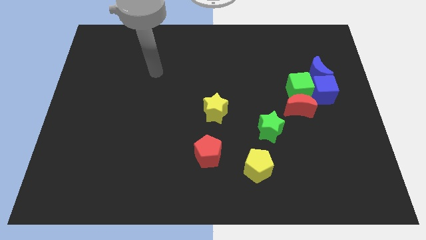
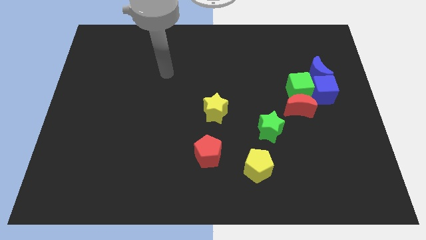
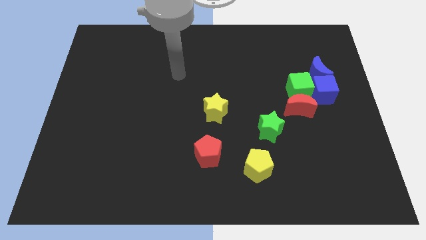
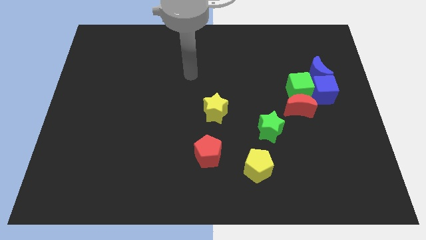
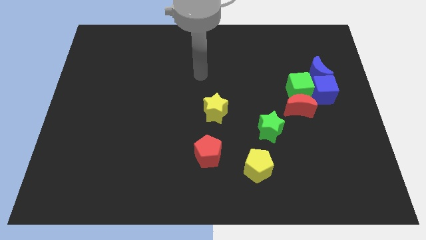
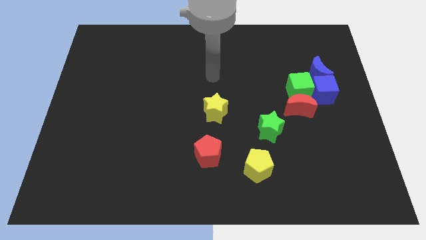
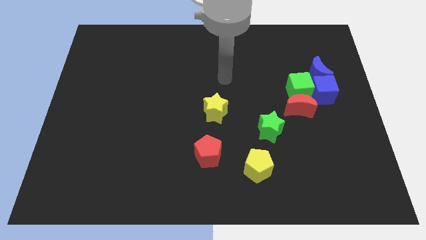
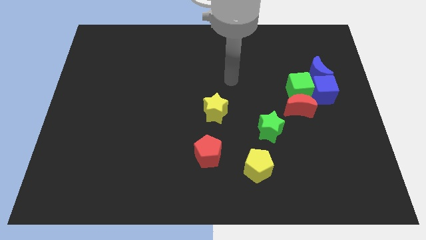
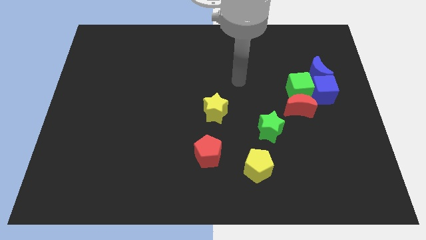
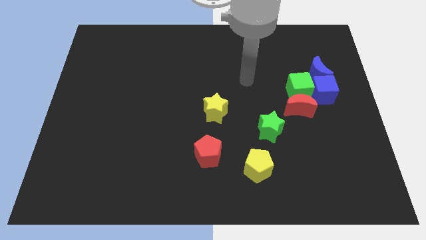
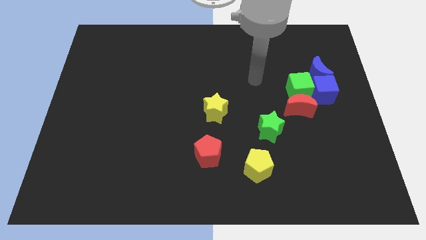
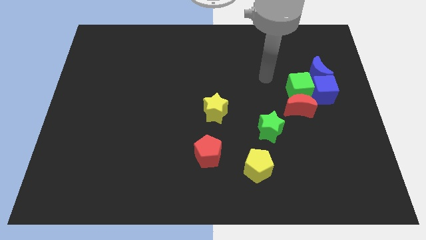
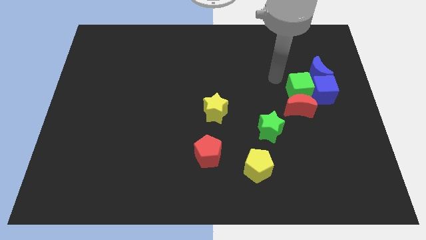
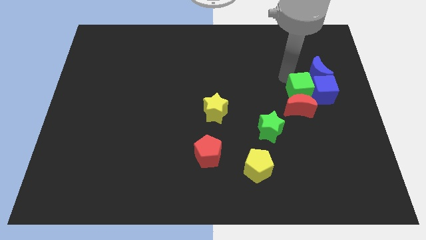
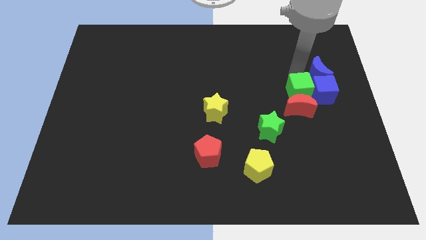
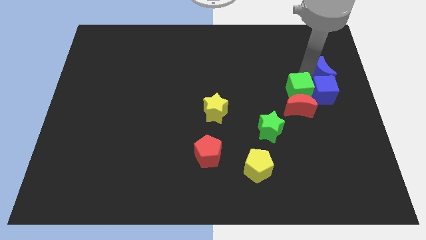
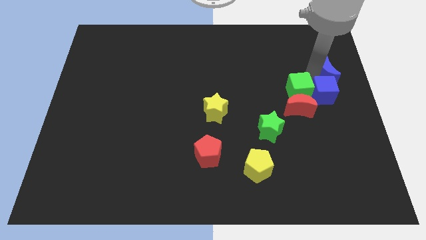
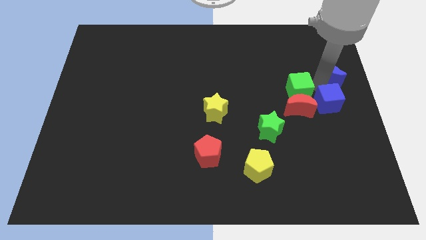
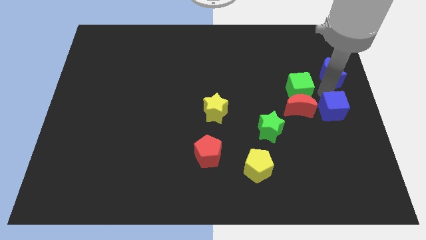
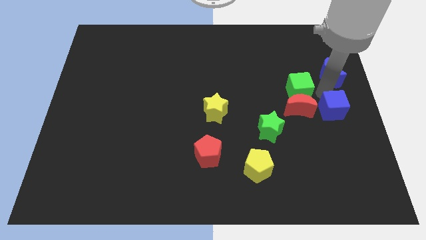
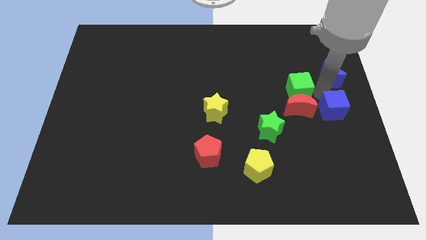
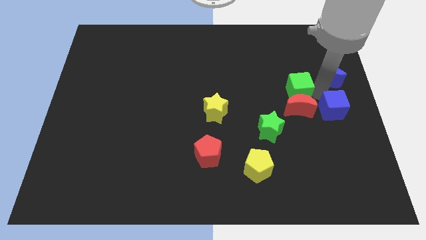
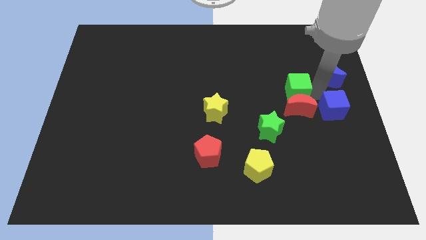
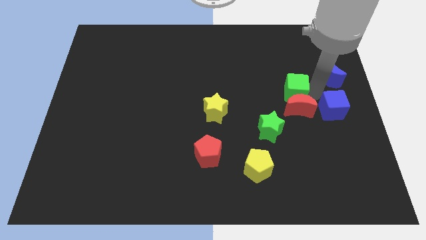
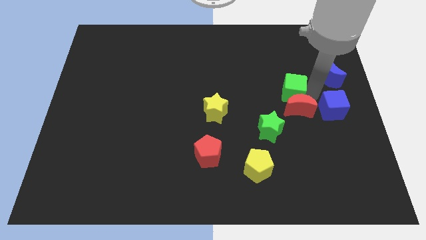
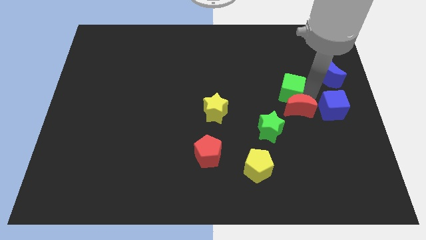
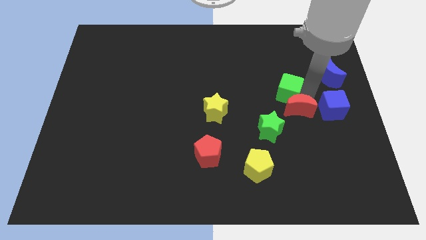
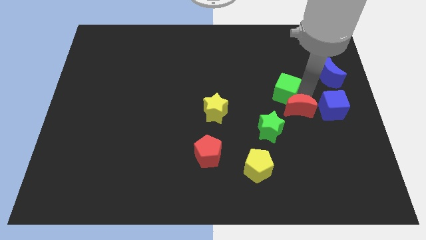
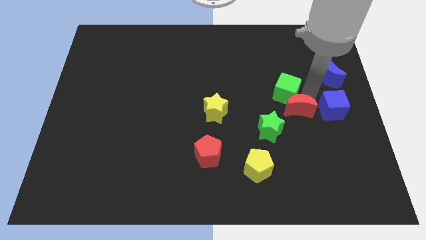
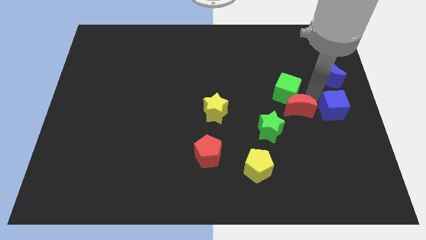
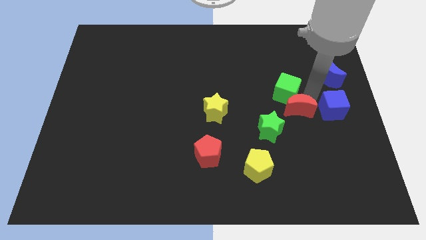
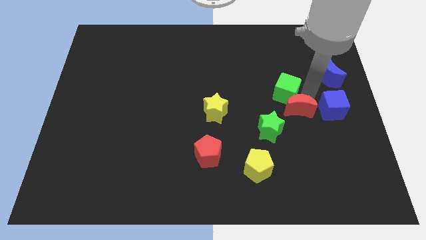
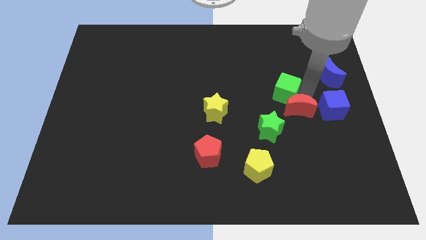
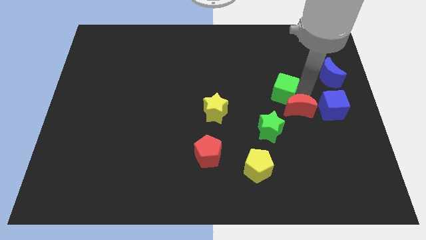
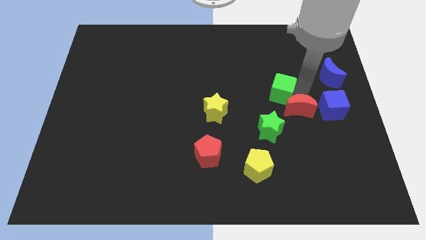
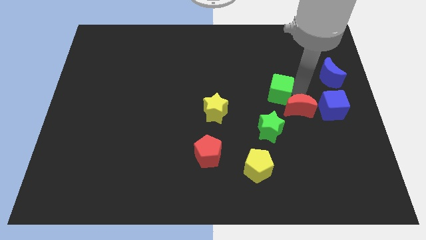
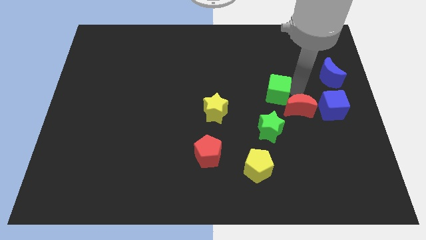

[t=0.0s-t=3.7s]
separate the green cube from the blue cube, red moon, and blue moon

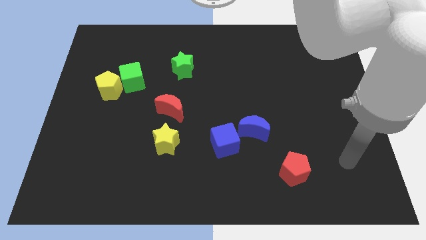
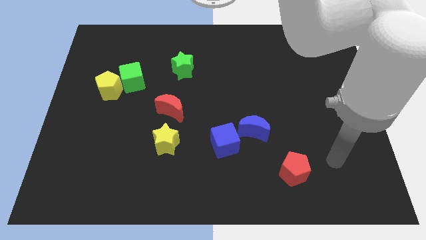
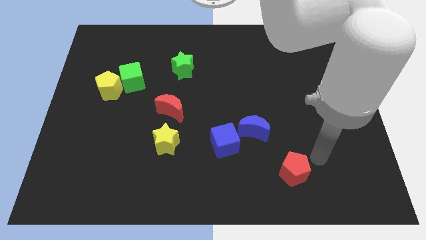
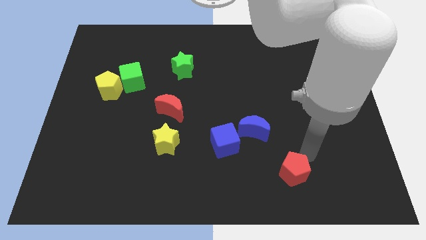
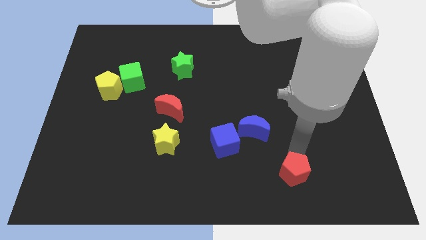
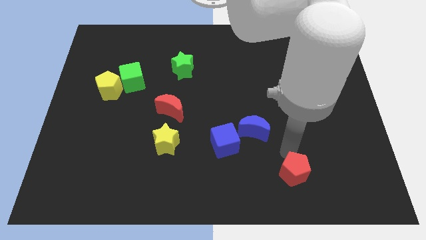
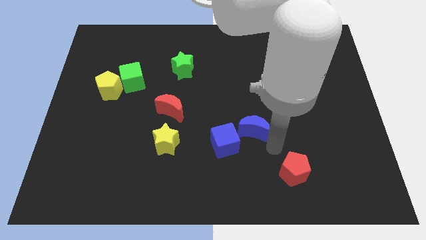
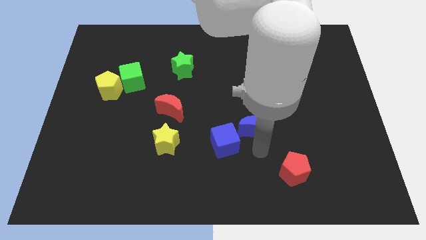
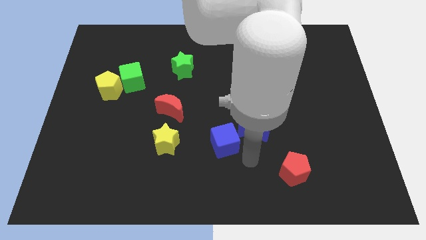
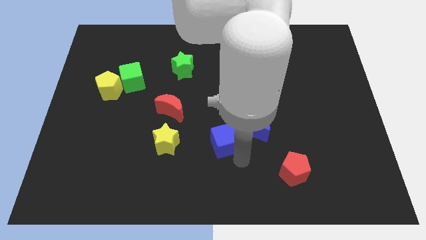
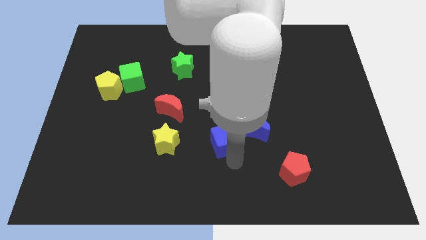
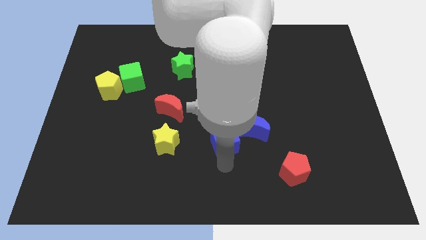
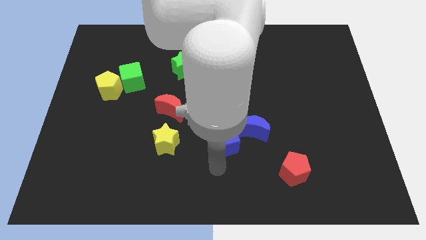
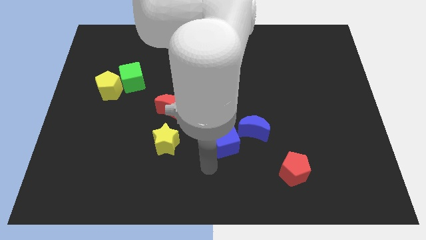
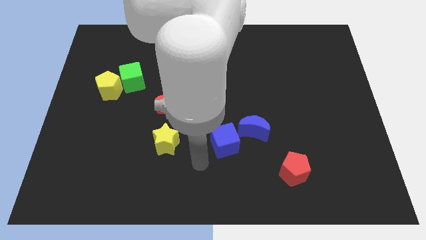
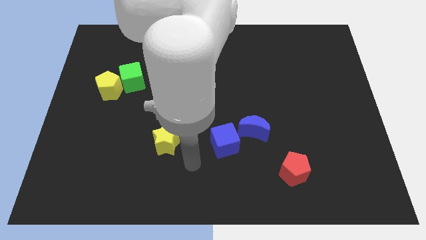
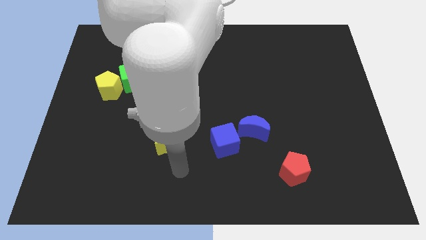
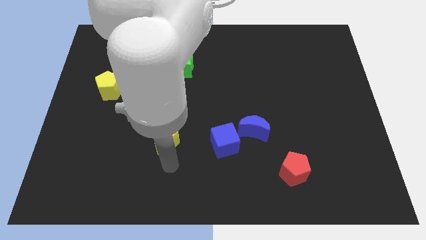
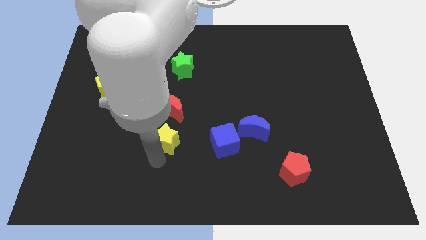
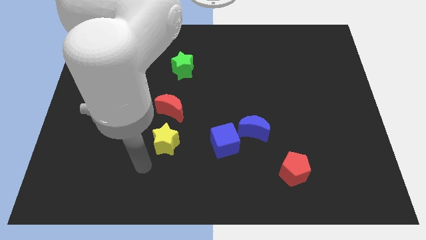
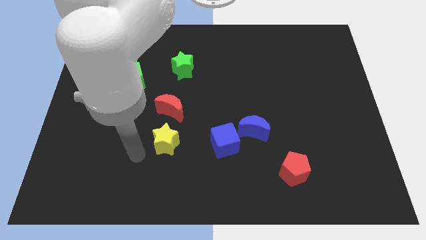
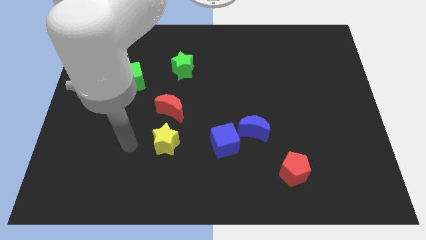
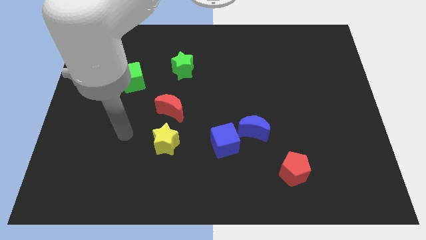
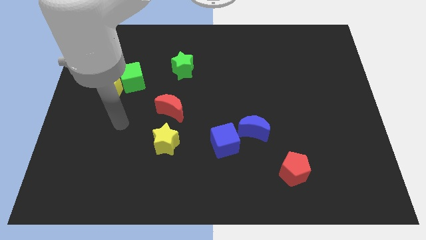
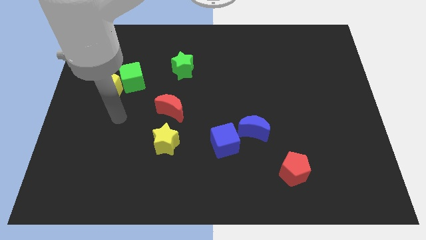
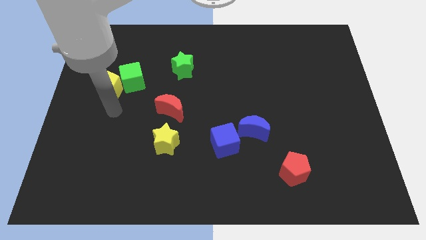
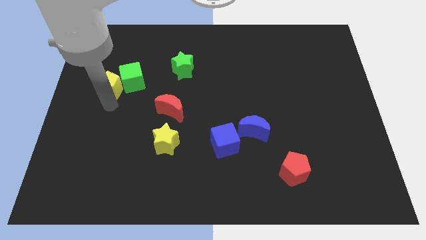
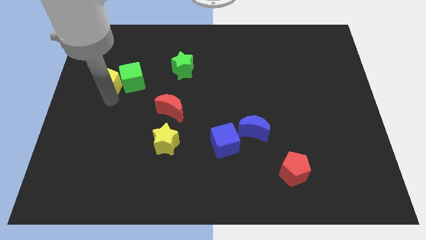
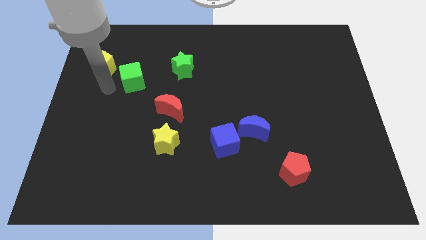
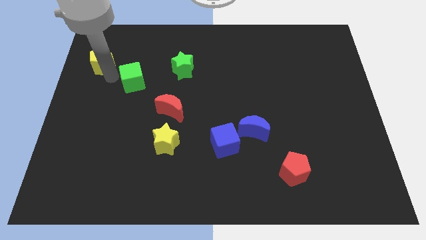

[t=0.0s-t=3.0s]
pull the green cube apart from the yellow pentagon

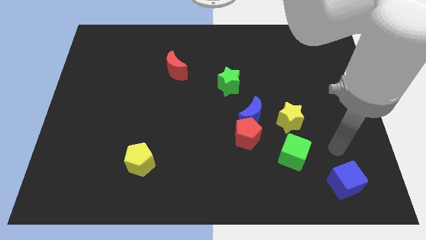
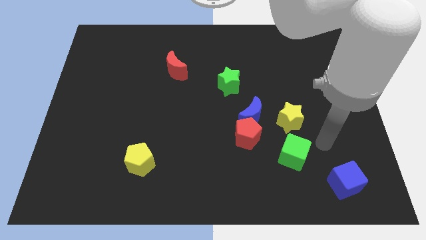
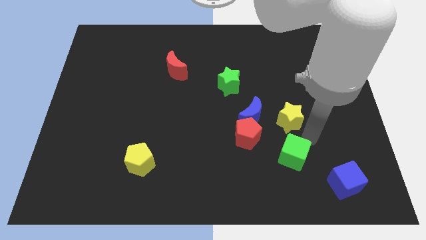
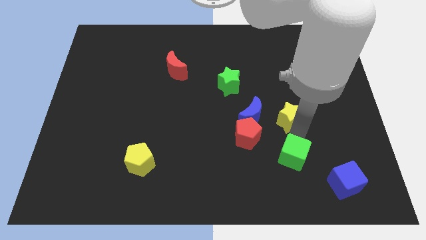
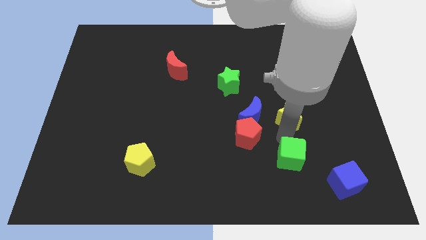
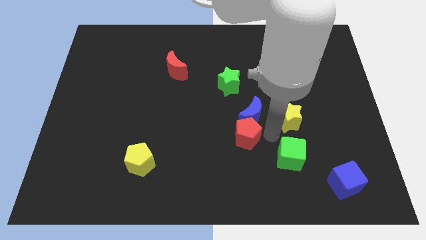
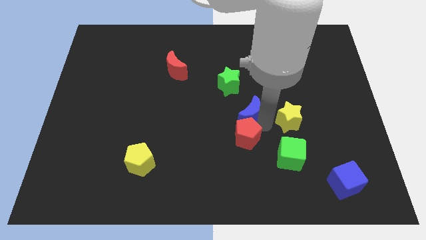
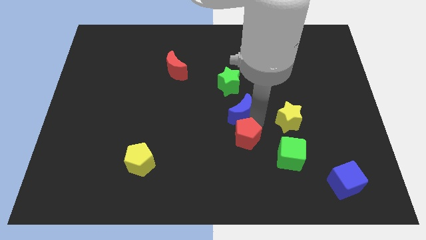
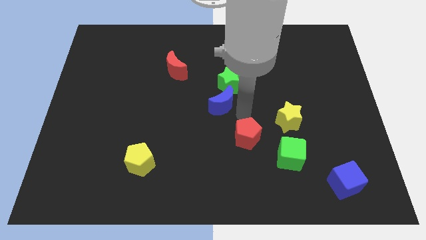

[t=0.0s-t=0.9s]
separate the red pentagon from the blue moon

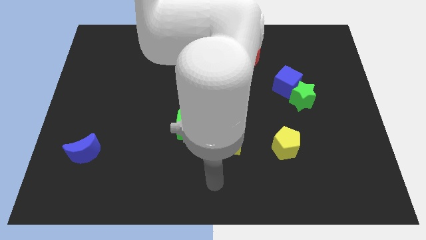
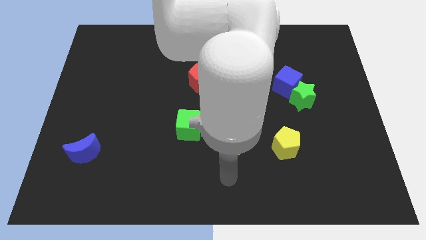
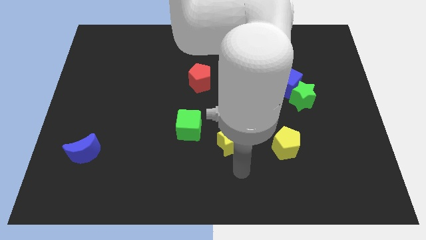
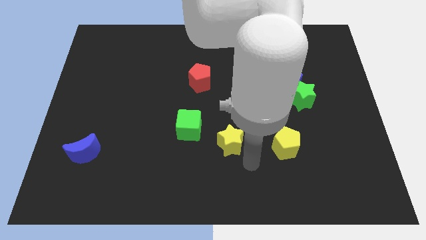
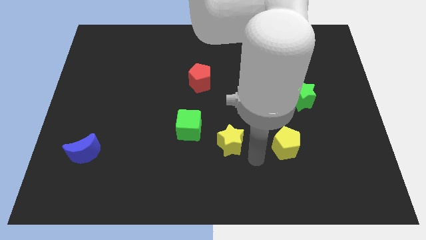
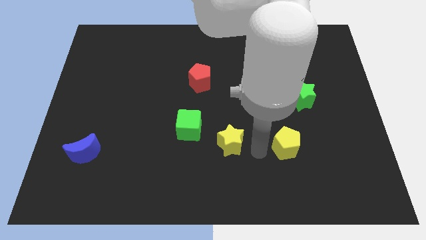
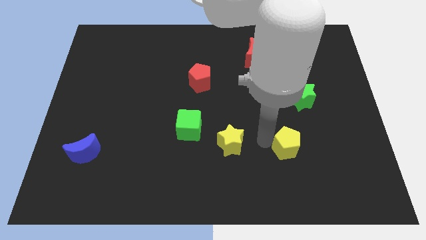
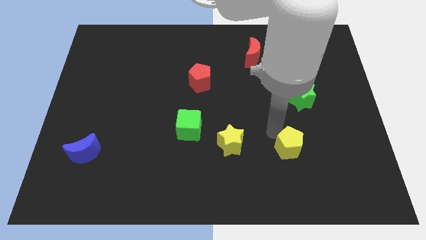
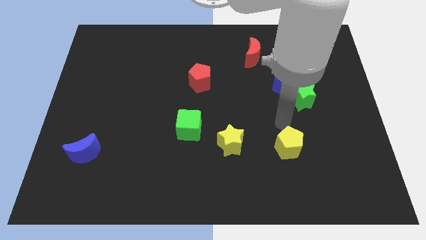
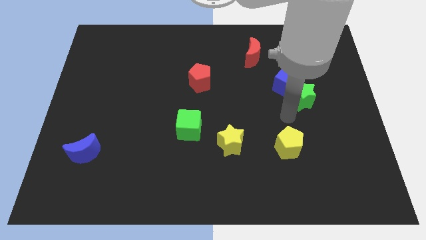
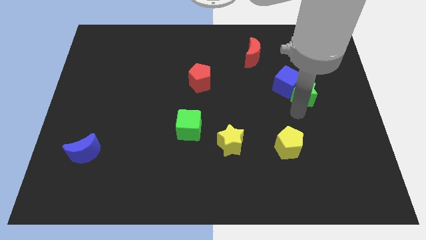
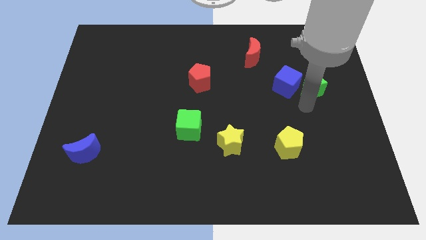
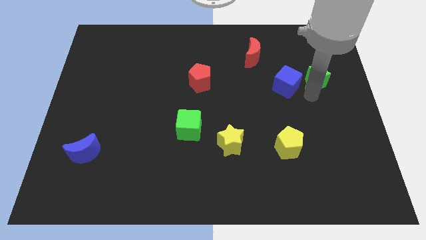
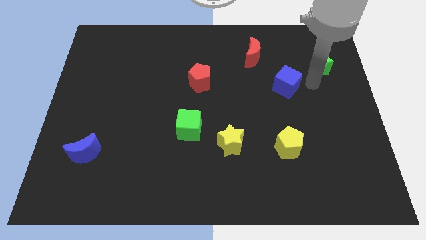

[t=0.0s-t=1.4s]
pull the blue cube apart from the green star

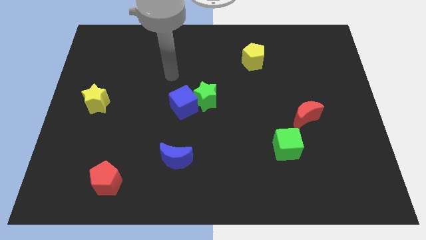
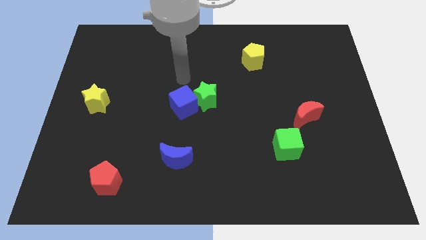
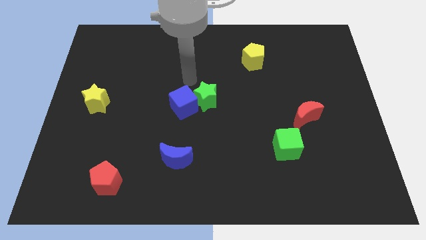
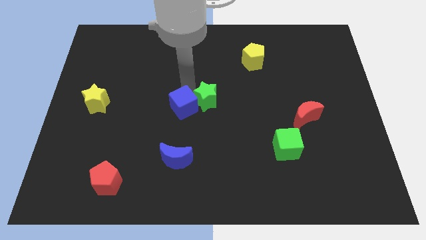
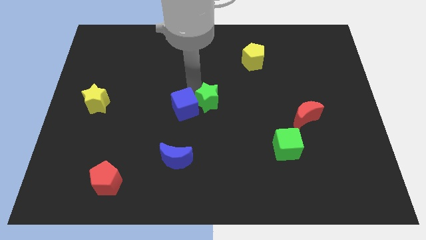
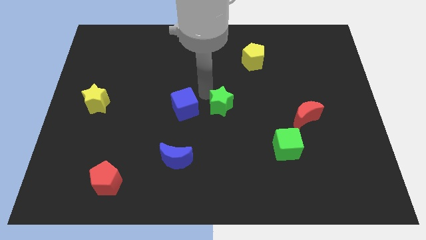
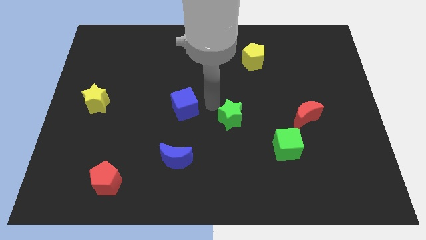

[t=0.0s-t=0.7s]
separate the blue cube from the green star
